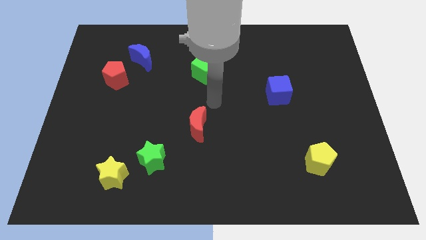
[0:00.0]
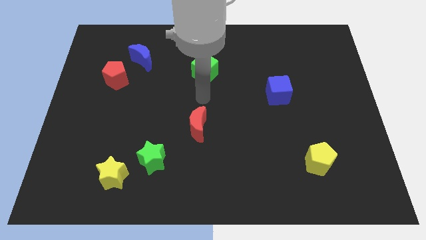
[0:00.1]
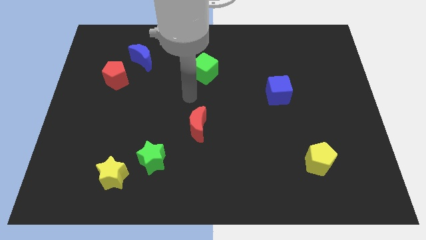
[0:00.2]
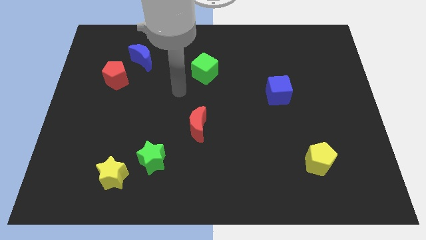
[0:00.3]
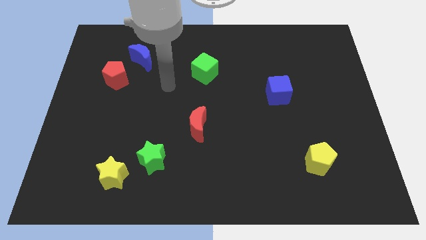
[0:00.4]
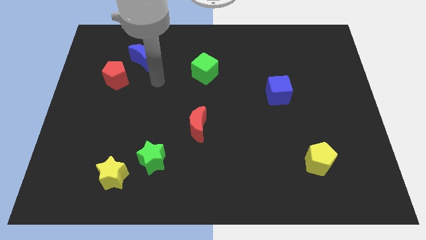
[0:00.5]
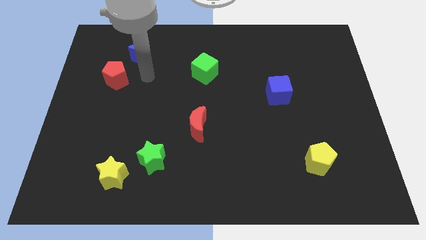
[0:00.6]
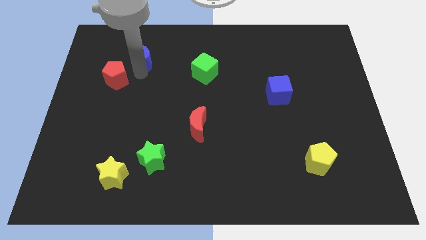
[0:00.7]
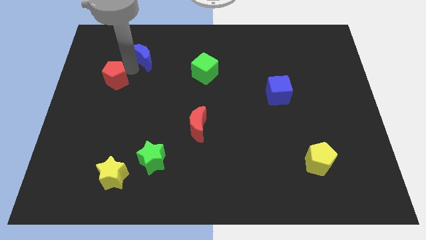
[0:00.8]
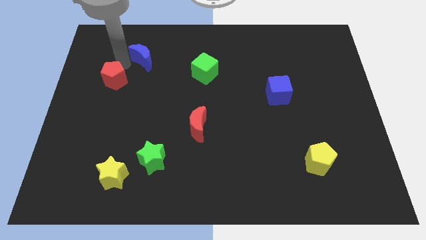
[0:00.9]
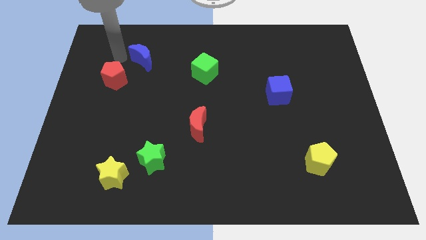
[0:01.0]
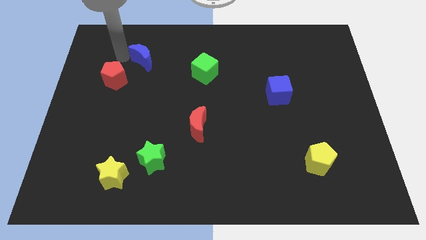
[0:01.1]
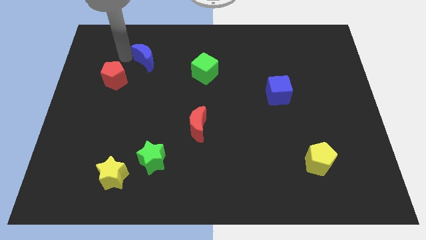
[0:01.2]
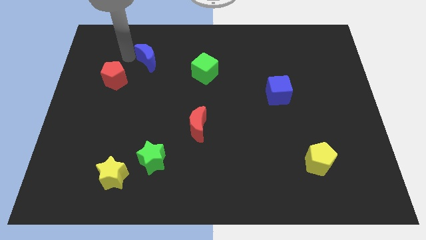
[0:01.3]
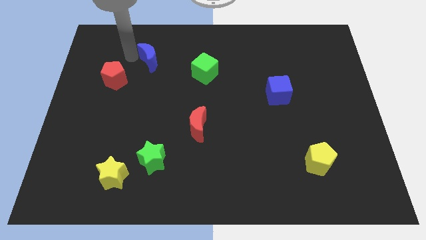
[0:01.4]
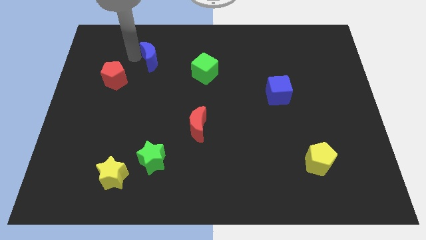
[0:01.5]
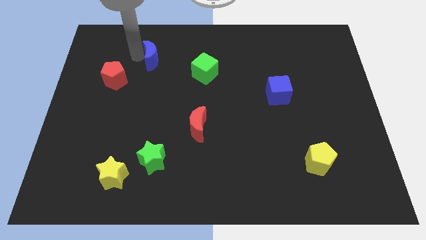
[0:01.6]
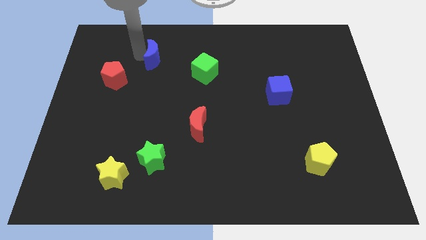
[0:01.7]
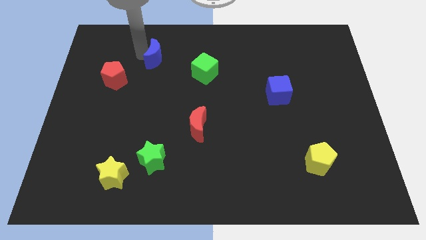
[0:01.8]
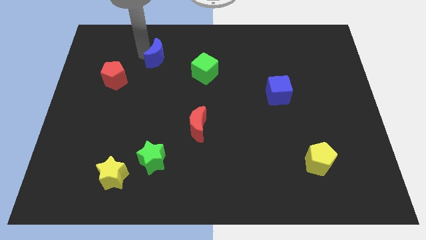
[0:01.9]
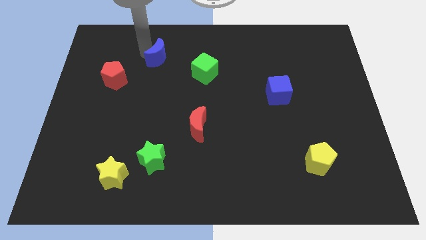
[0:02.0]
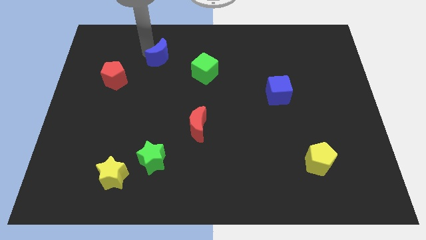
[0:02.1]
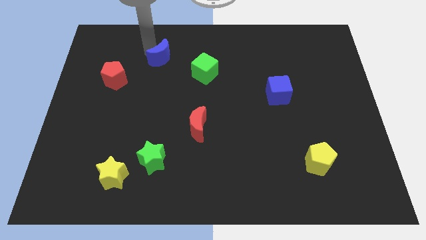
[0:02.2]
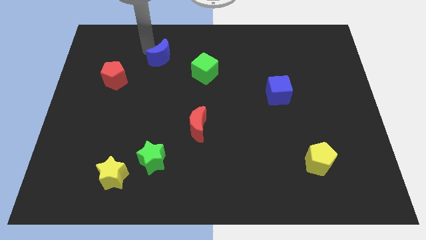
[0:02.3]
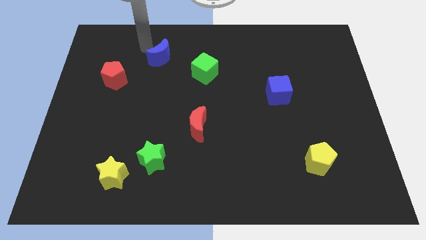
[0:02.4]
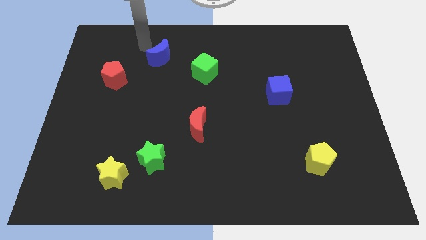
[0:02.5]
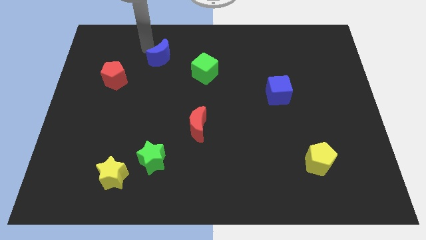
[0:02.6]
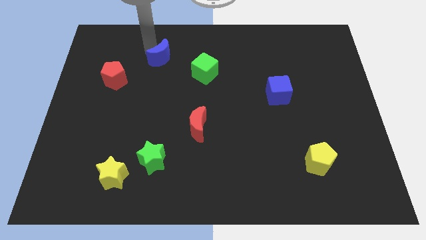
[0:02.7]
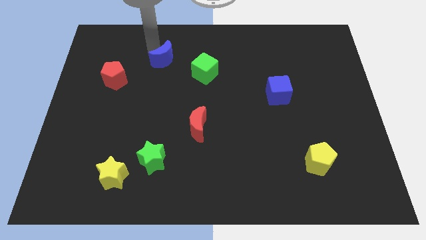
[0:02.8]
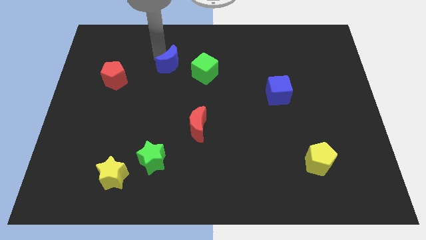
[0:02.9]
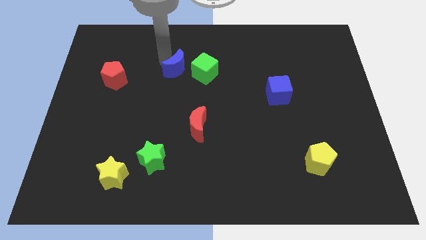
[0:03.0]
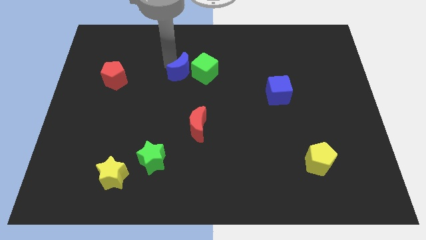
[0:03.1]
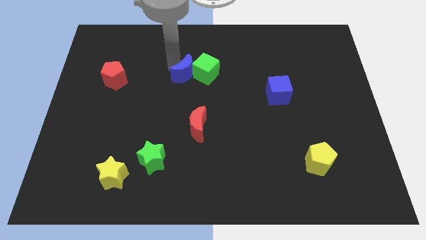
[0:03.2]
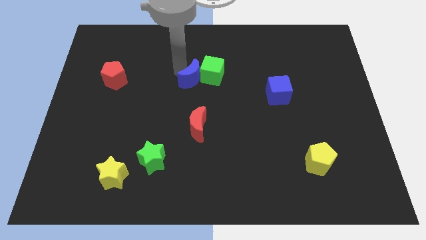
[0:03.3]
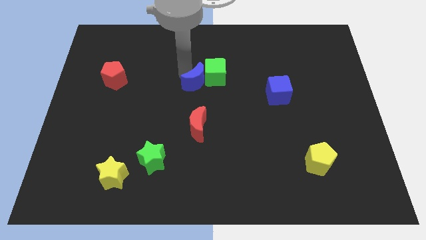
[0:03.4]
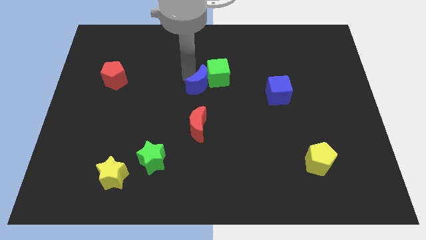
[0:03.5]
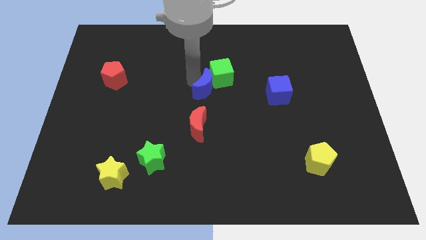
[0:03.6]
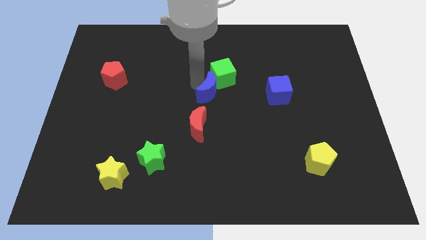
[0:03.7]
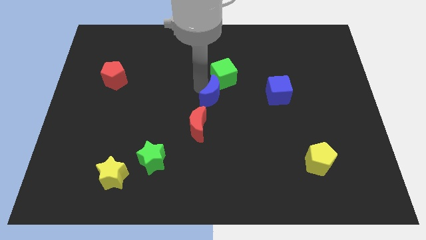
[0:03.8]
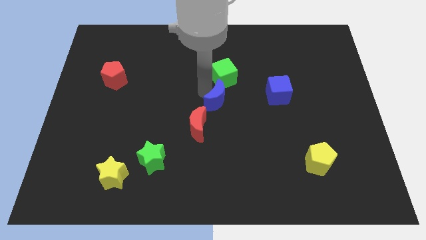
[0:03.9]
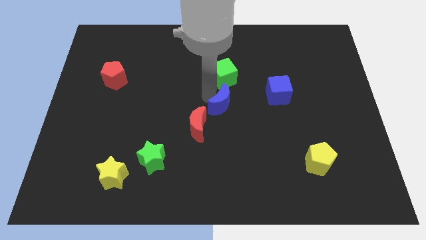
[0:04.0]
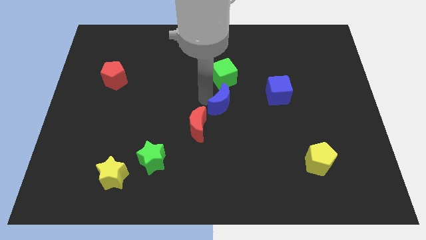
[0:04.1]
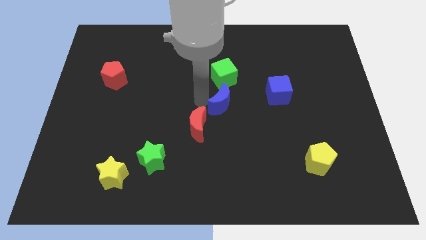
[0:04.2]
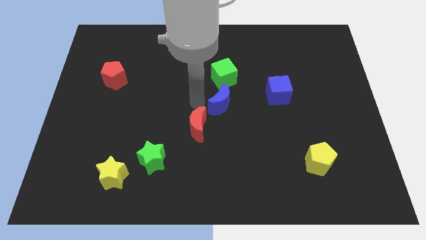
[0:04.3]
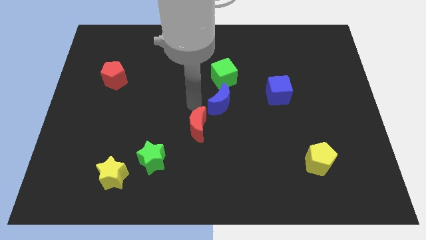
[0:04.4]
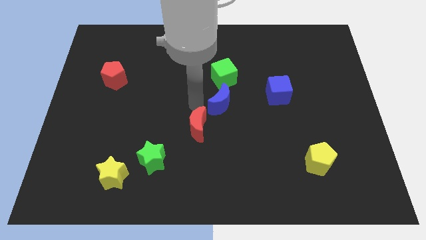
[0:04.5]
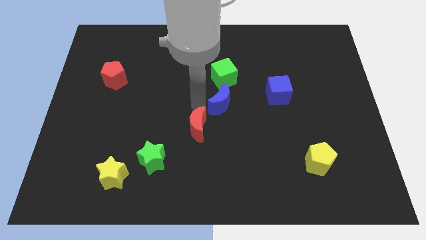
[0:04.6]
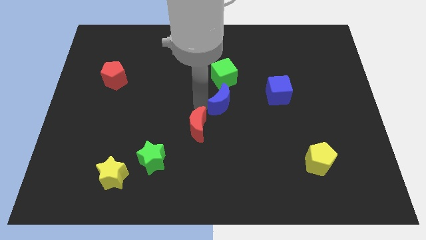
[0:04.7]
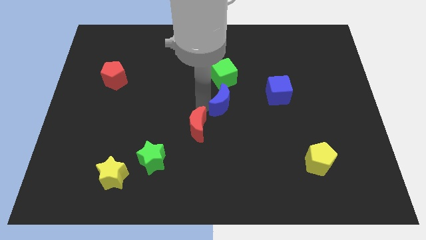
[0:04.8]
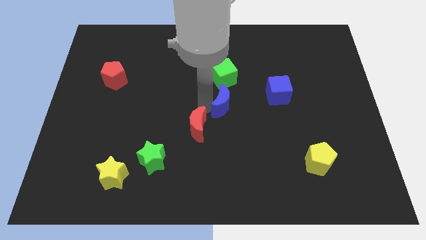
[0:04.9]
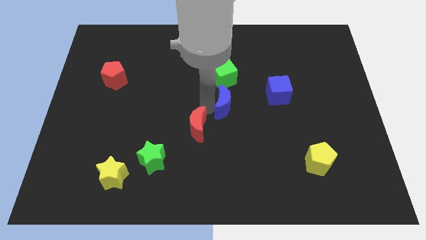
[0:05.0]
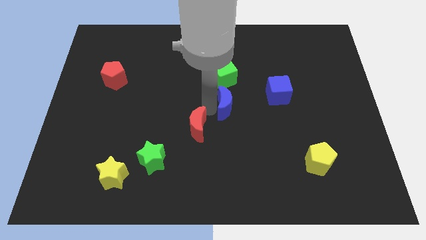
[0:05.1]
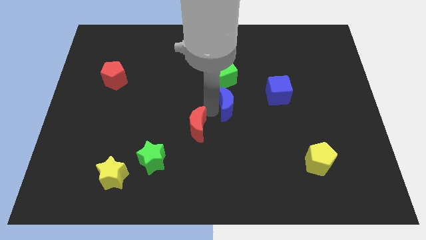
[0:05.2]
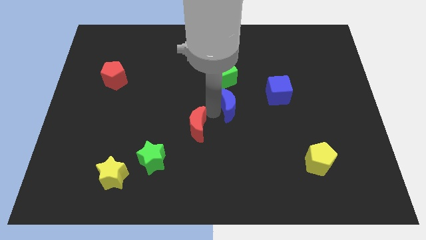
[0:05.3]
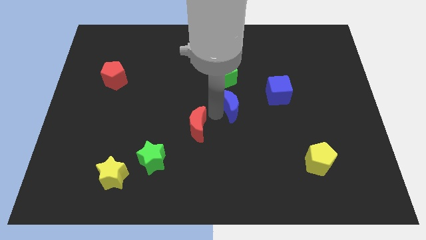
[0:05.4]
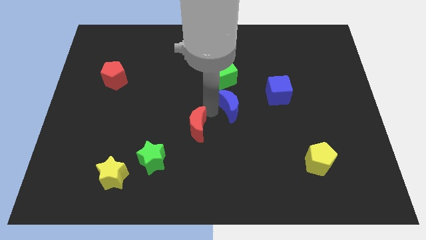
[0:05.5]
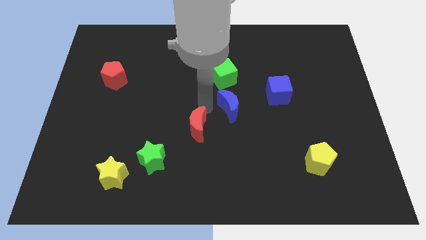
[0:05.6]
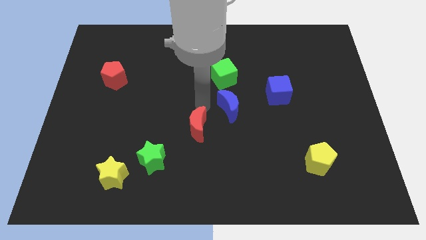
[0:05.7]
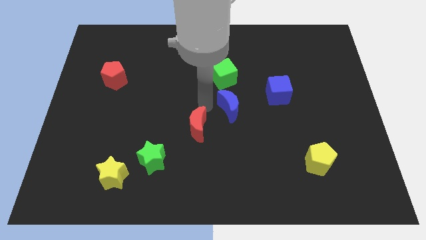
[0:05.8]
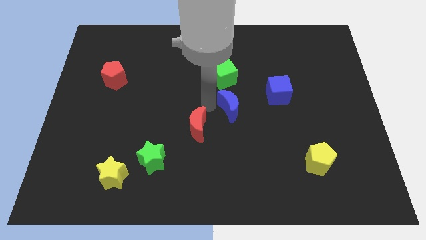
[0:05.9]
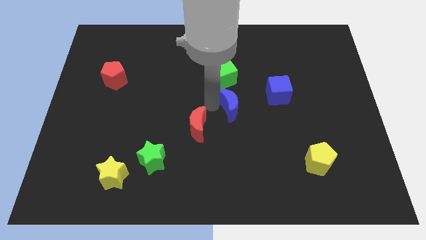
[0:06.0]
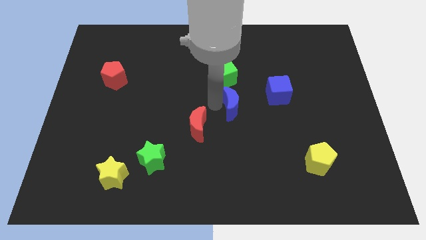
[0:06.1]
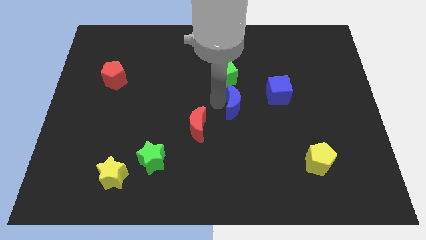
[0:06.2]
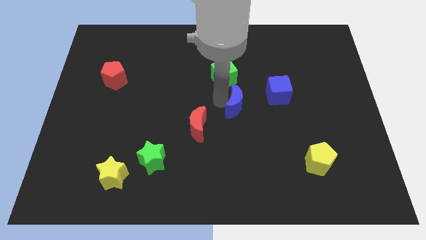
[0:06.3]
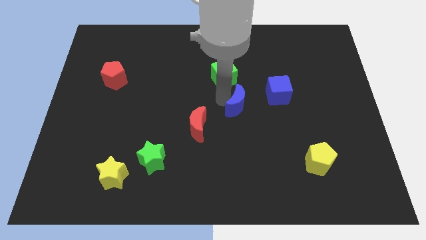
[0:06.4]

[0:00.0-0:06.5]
put the blue moon to the bottom left of the blue cube
